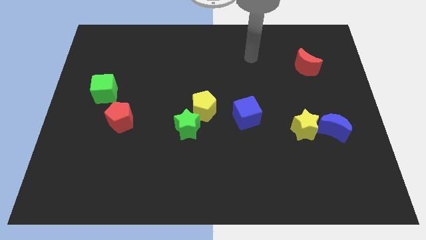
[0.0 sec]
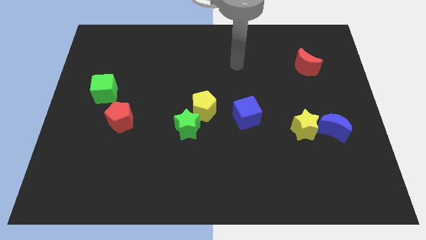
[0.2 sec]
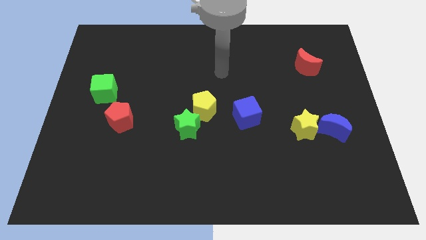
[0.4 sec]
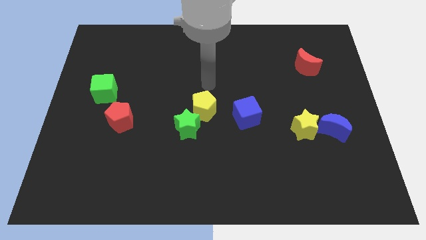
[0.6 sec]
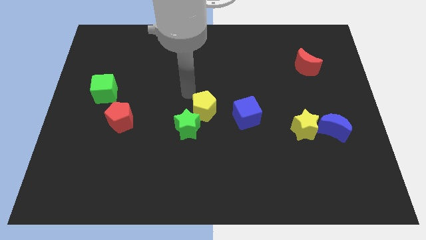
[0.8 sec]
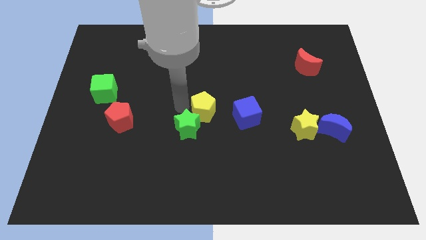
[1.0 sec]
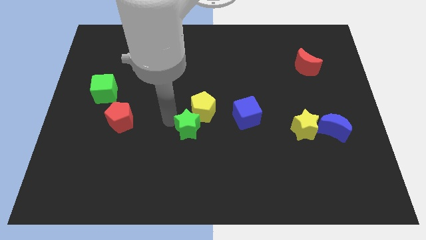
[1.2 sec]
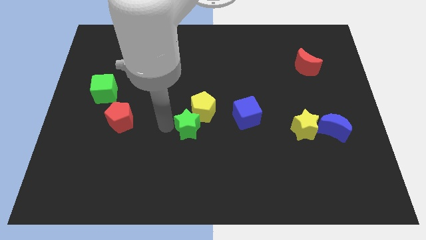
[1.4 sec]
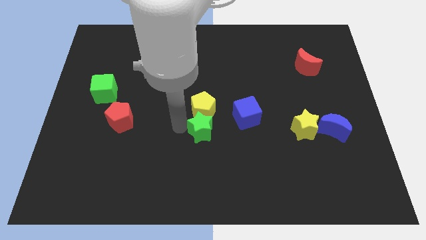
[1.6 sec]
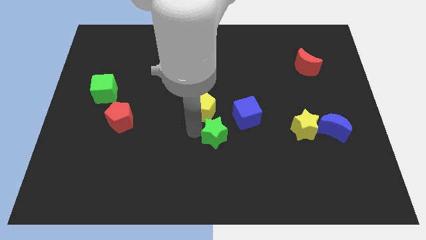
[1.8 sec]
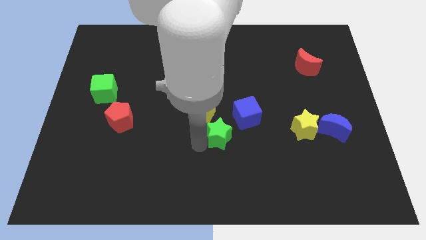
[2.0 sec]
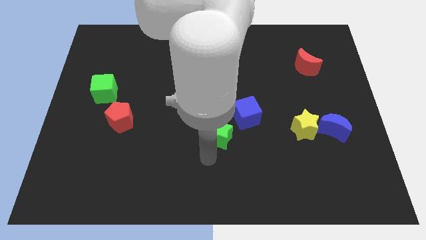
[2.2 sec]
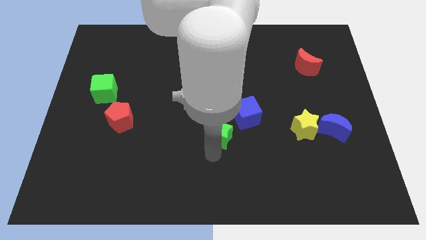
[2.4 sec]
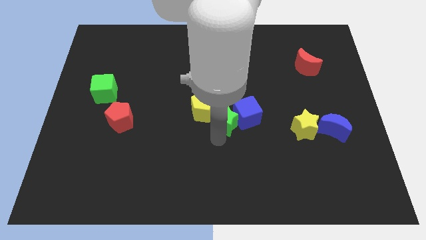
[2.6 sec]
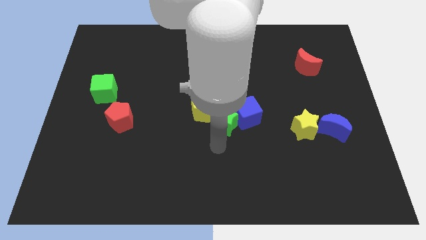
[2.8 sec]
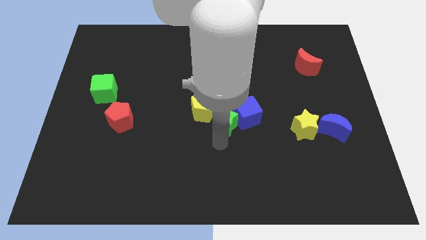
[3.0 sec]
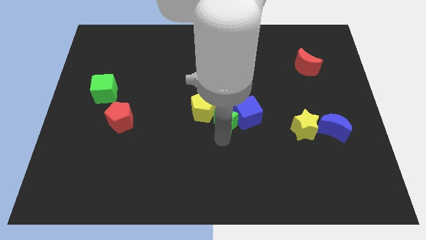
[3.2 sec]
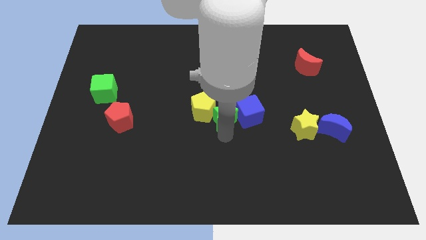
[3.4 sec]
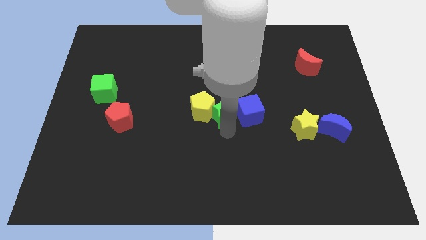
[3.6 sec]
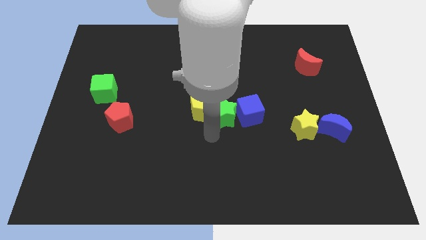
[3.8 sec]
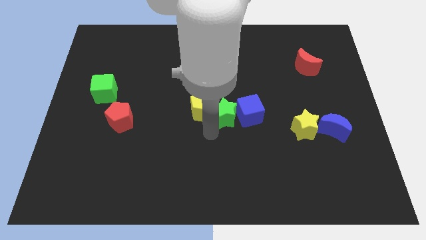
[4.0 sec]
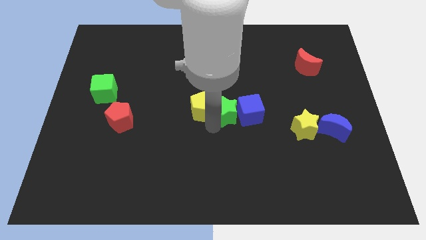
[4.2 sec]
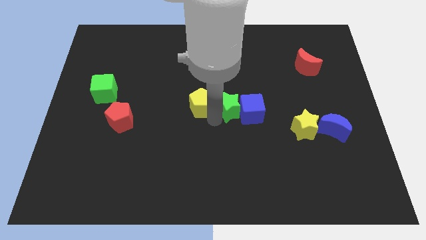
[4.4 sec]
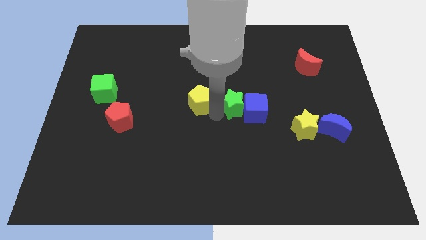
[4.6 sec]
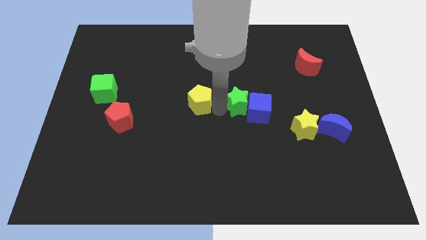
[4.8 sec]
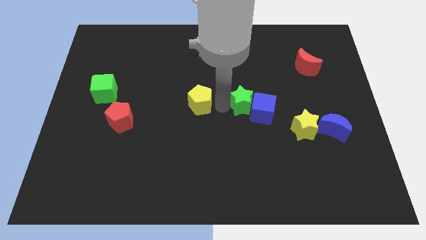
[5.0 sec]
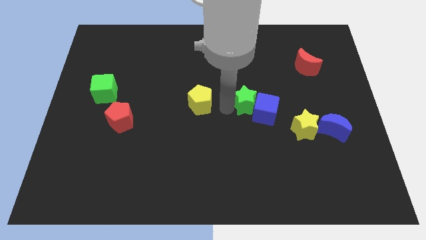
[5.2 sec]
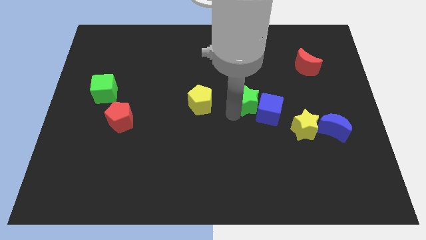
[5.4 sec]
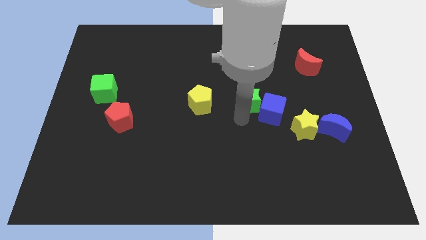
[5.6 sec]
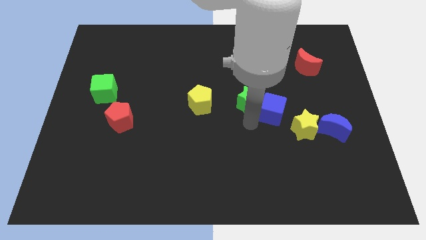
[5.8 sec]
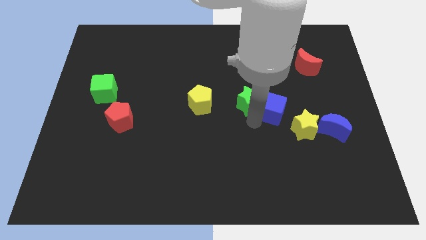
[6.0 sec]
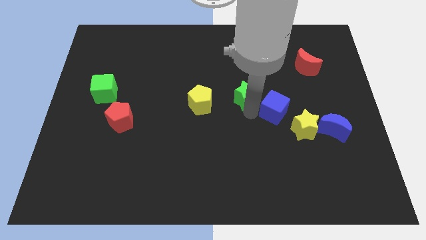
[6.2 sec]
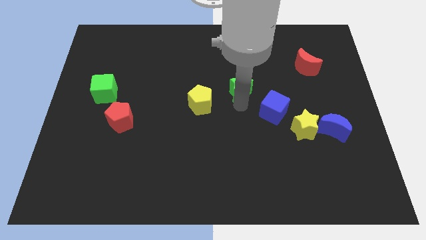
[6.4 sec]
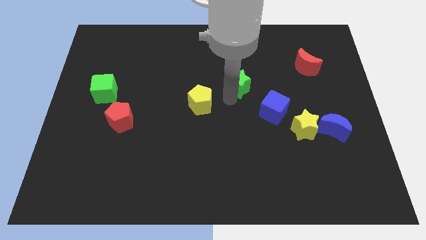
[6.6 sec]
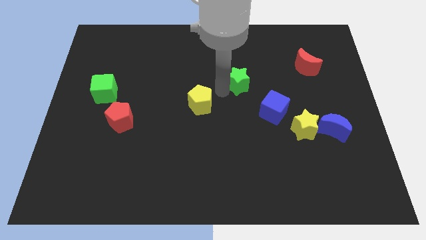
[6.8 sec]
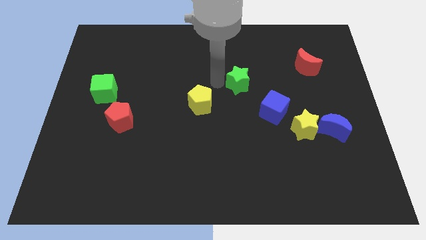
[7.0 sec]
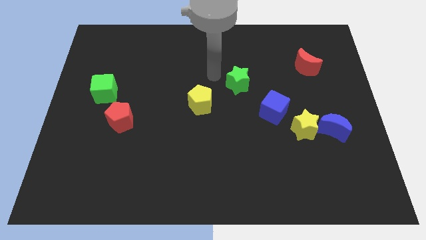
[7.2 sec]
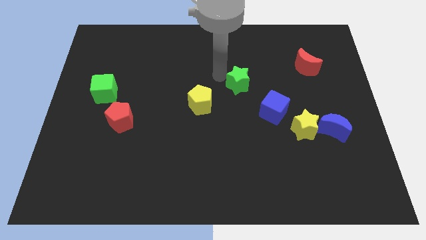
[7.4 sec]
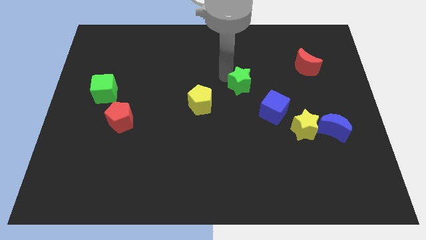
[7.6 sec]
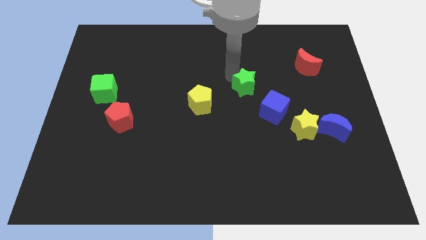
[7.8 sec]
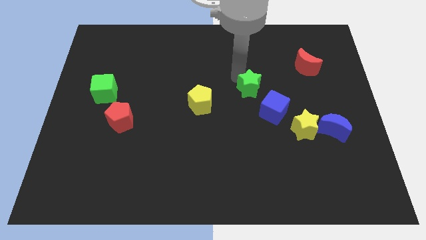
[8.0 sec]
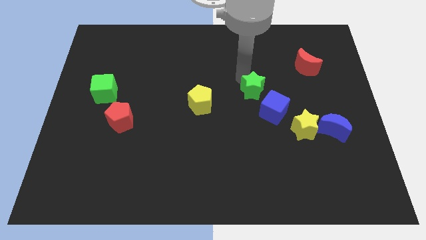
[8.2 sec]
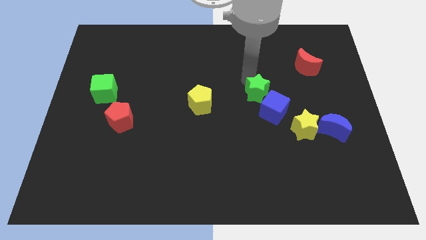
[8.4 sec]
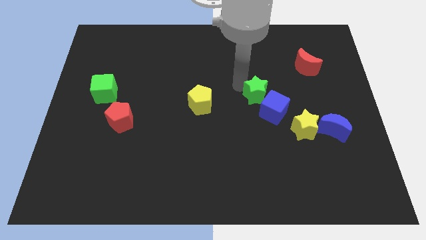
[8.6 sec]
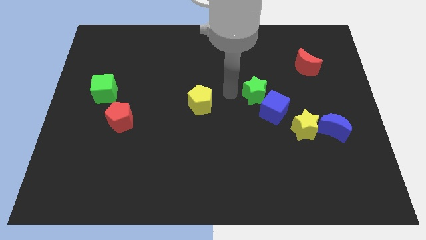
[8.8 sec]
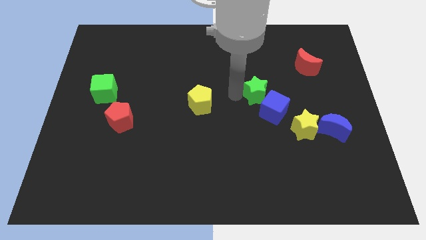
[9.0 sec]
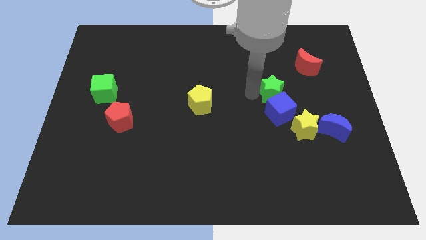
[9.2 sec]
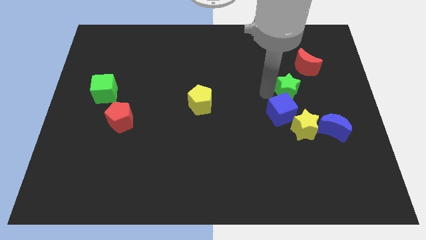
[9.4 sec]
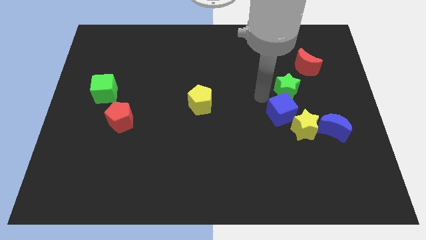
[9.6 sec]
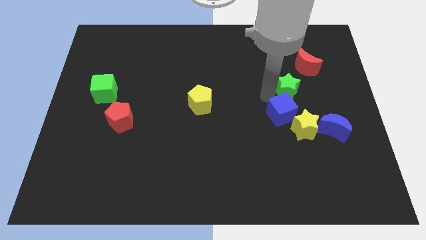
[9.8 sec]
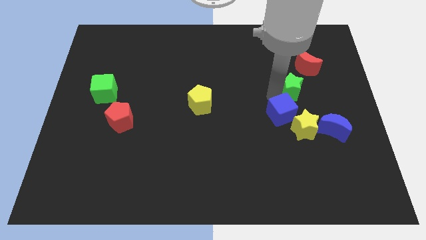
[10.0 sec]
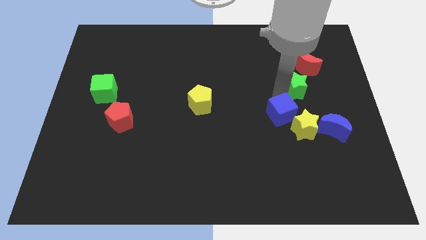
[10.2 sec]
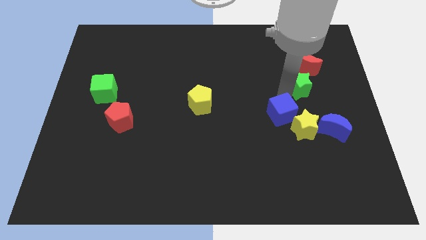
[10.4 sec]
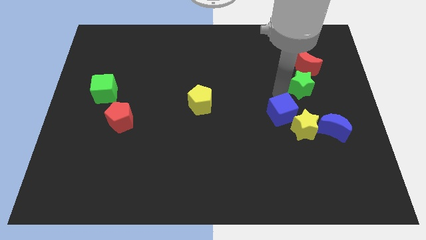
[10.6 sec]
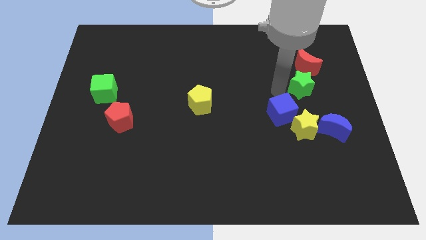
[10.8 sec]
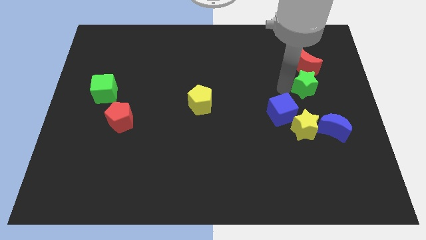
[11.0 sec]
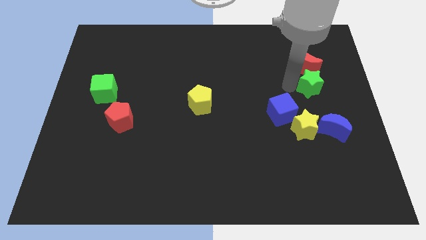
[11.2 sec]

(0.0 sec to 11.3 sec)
push the green star diagonally down and to the right of the red moon

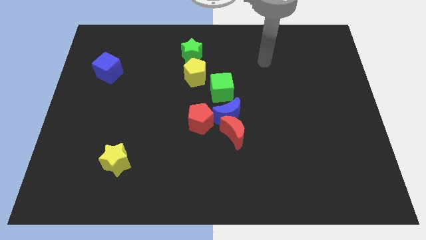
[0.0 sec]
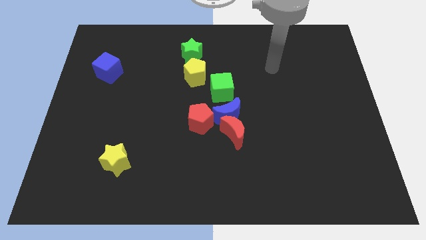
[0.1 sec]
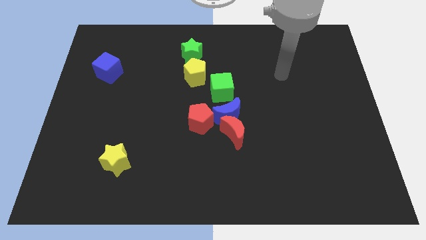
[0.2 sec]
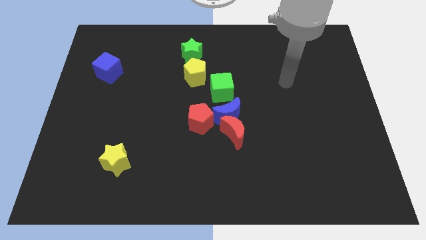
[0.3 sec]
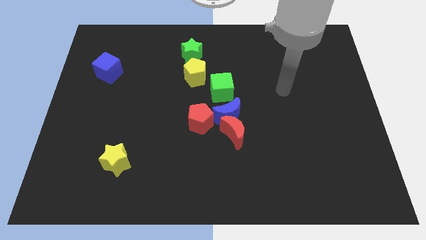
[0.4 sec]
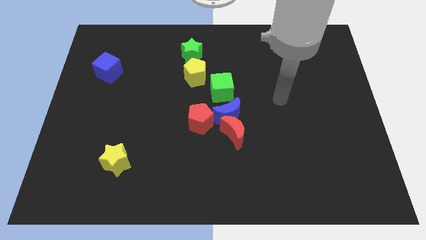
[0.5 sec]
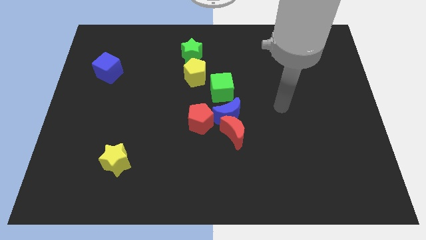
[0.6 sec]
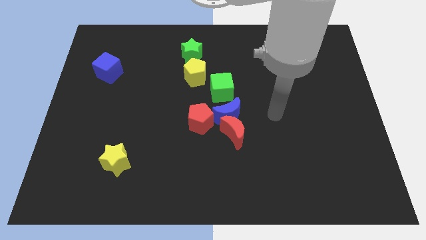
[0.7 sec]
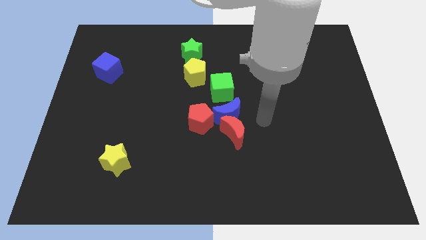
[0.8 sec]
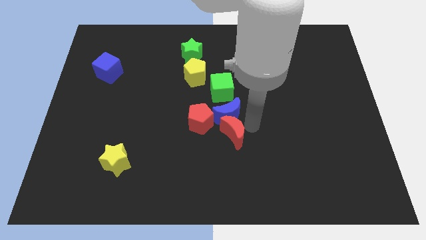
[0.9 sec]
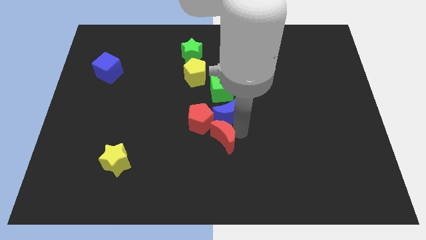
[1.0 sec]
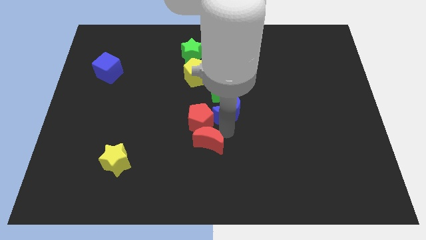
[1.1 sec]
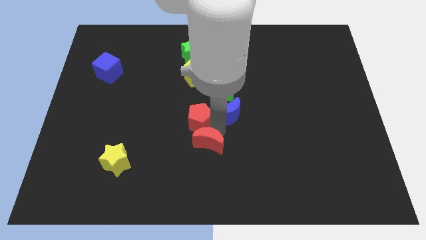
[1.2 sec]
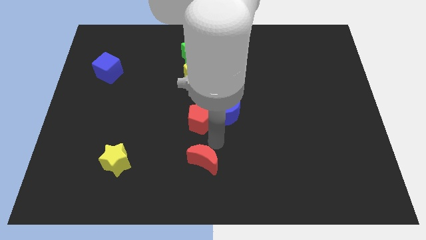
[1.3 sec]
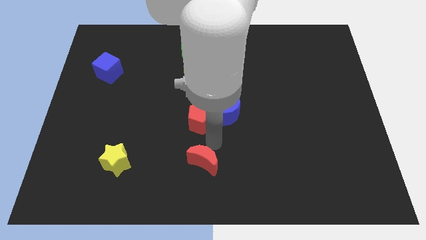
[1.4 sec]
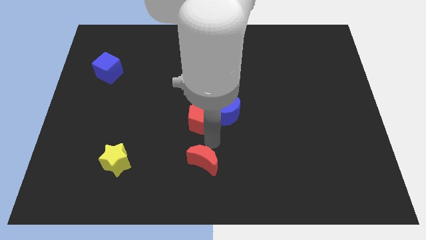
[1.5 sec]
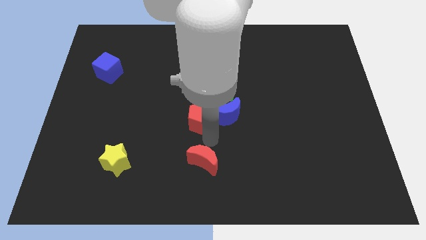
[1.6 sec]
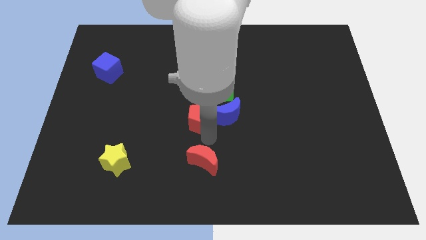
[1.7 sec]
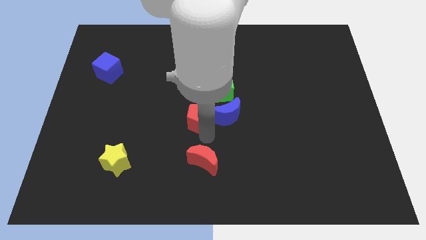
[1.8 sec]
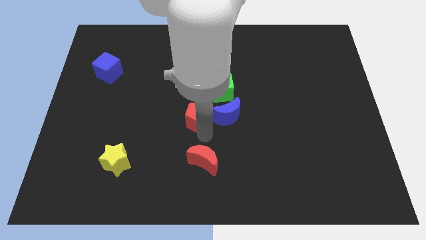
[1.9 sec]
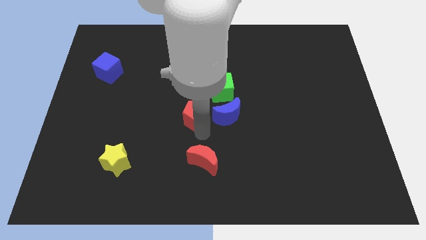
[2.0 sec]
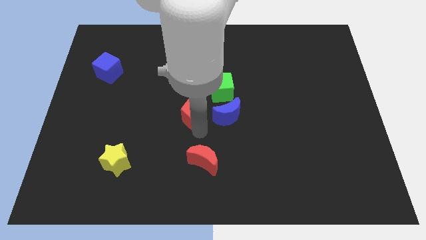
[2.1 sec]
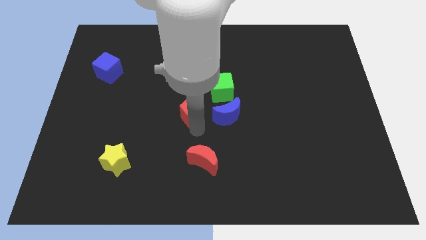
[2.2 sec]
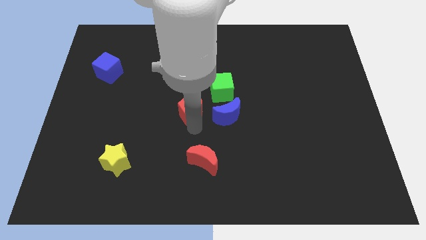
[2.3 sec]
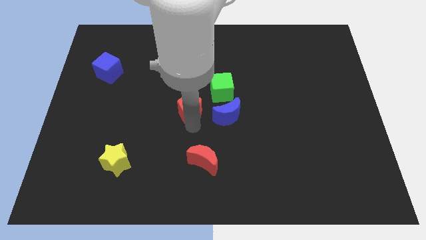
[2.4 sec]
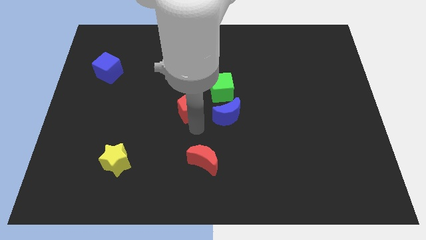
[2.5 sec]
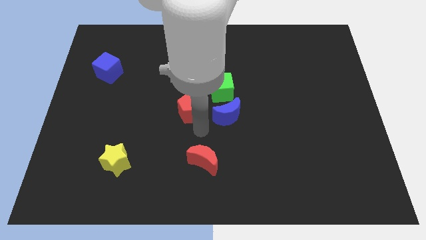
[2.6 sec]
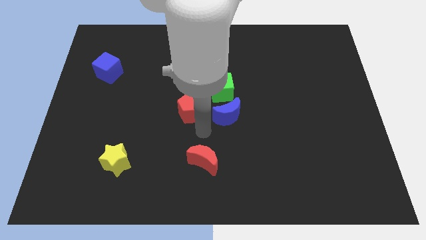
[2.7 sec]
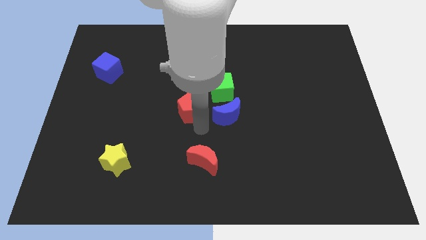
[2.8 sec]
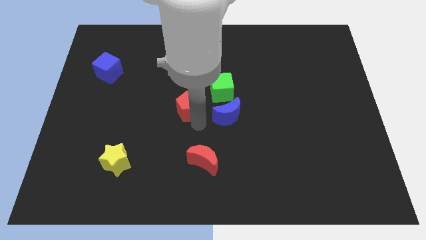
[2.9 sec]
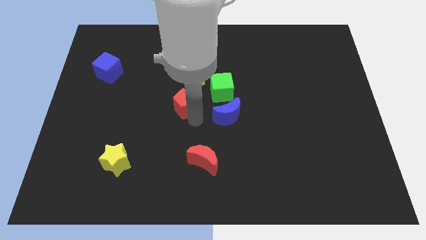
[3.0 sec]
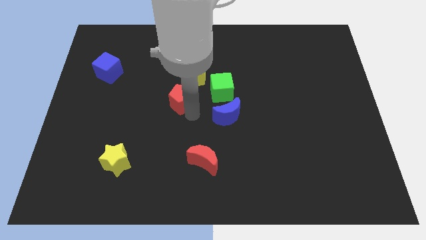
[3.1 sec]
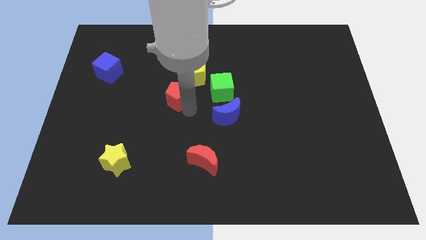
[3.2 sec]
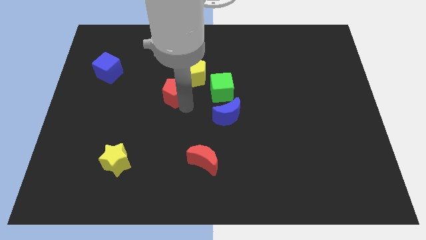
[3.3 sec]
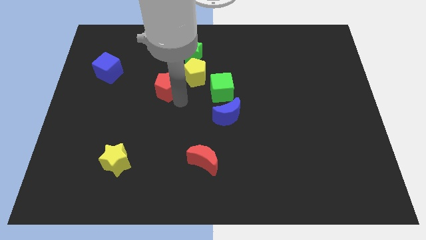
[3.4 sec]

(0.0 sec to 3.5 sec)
push the red pentagon to the left of the yellow pentagon
